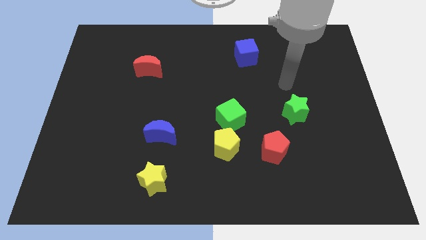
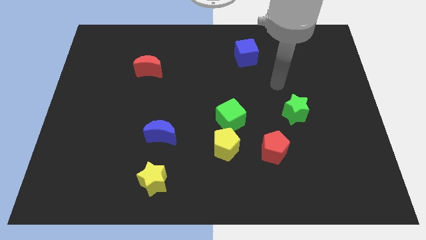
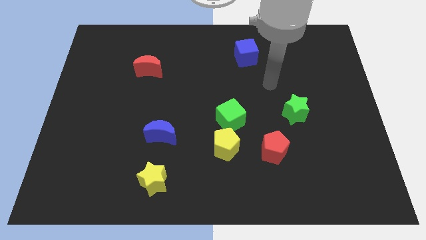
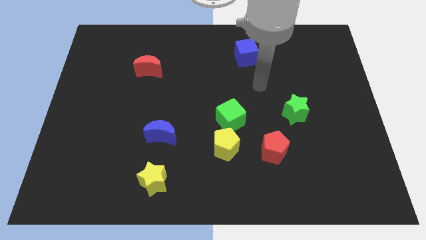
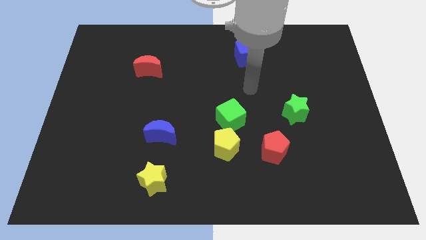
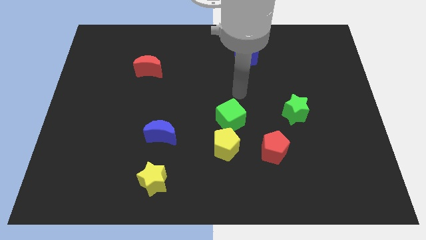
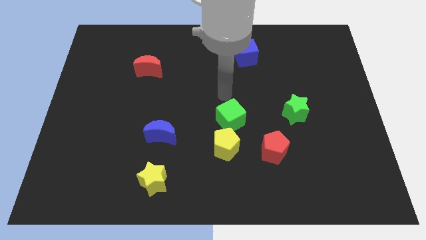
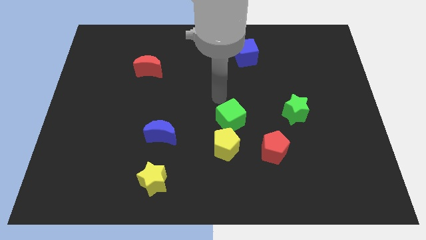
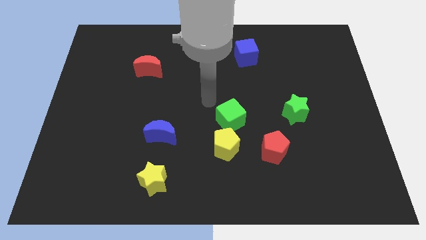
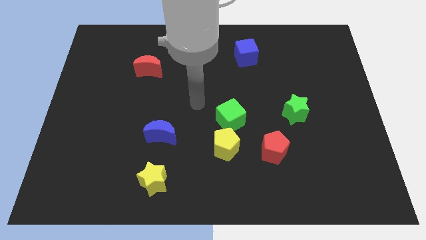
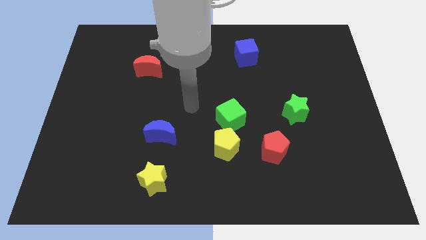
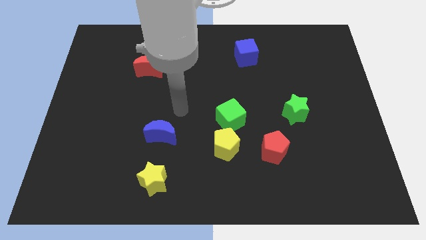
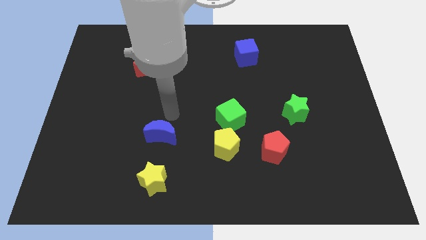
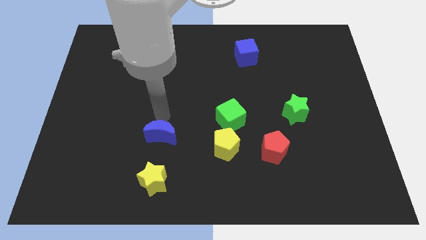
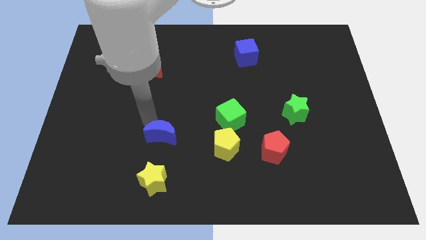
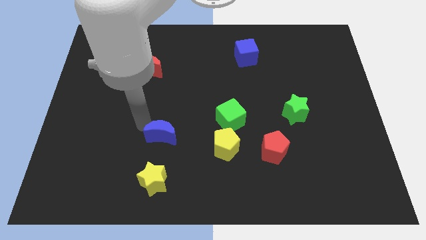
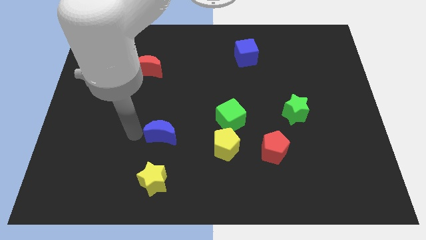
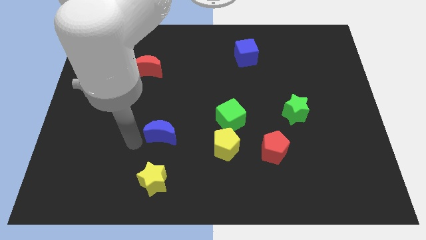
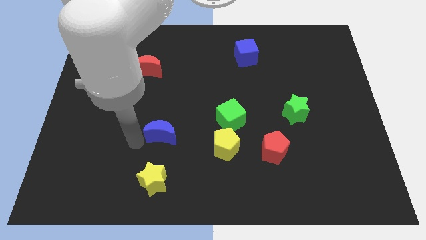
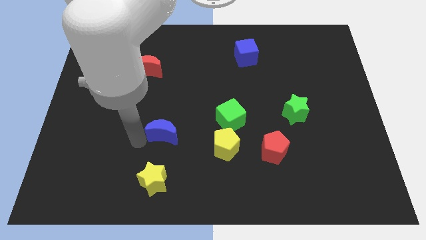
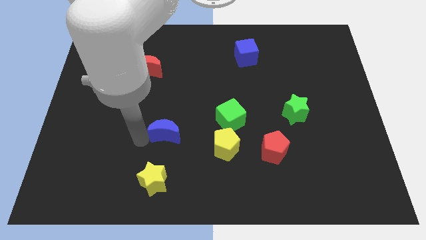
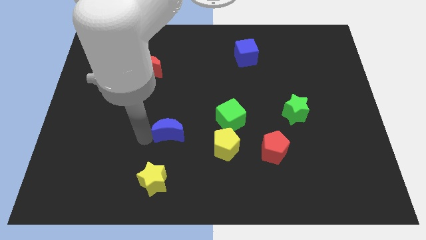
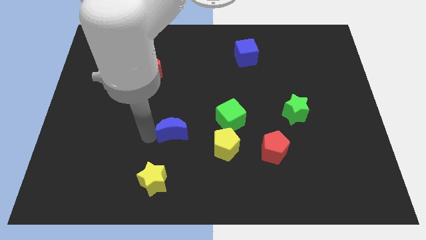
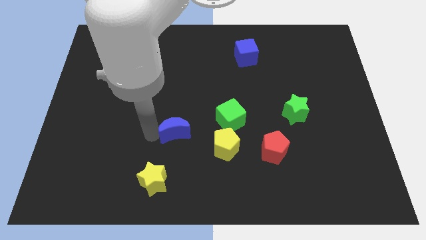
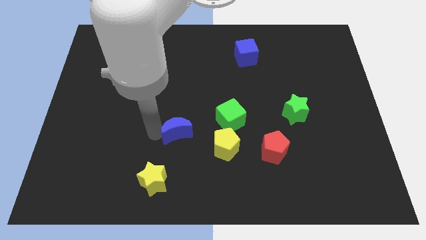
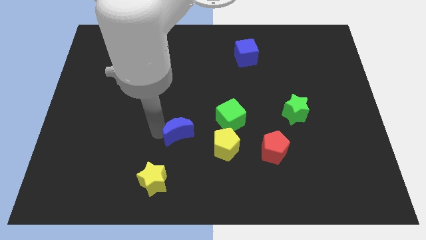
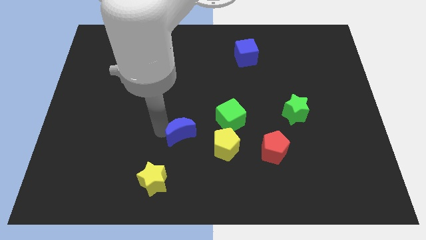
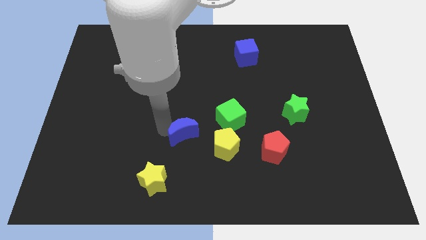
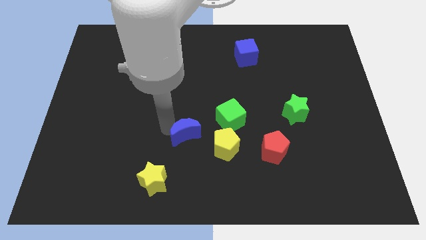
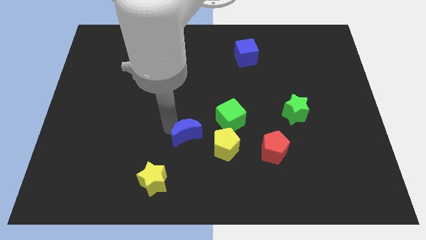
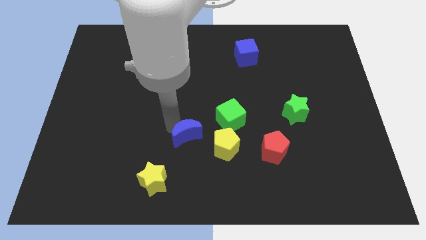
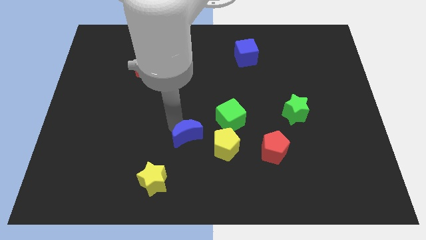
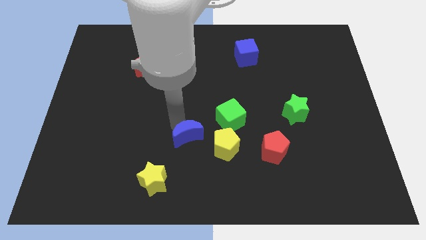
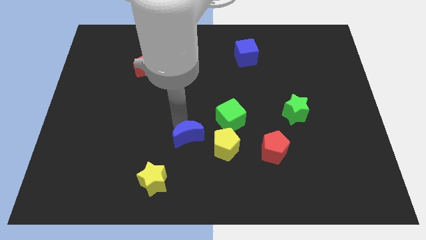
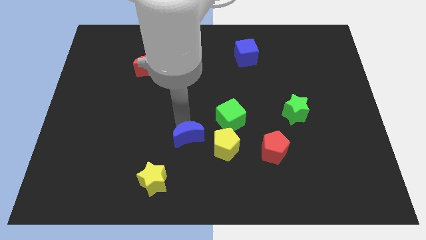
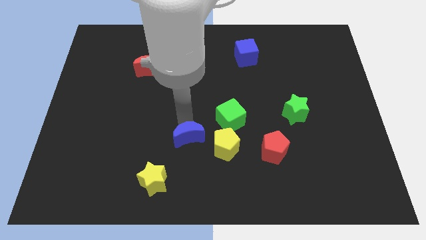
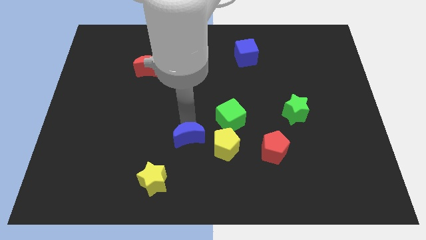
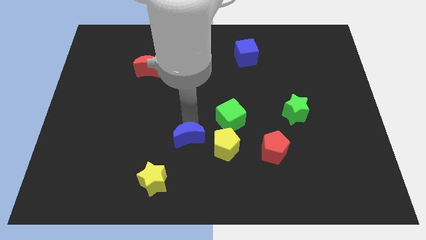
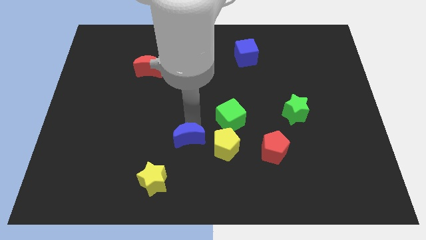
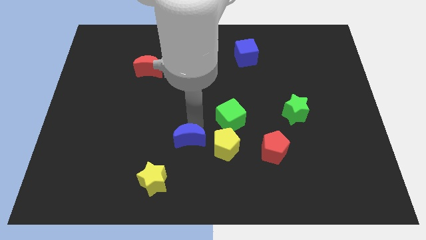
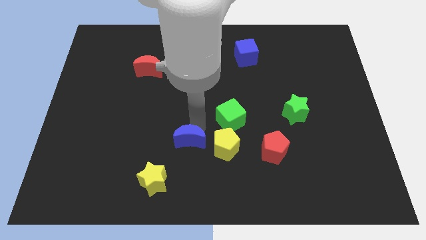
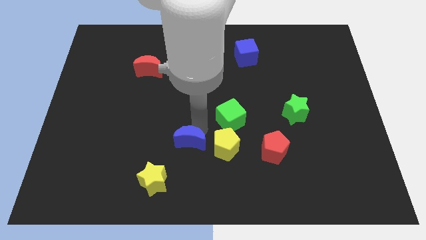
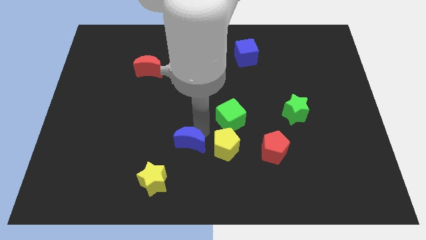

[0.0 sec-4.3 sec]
slightly slide the blue moon to the right

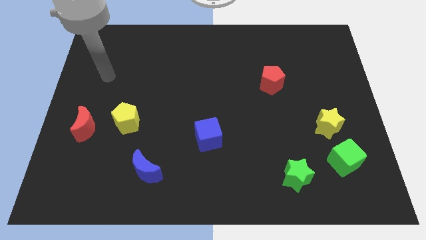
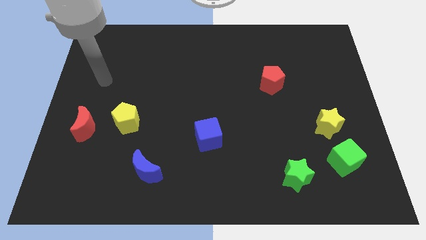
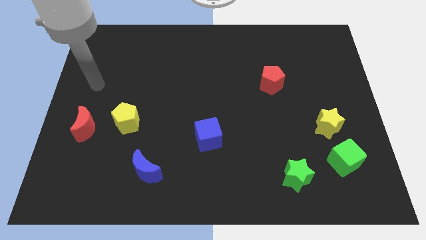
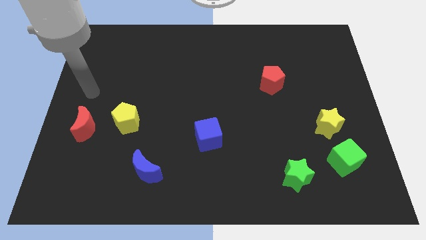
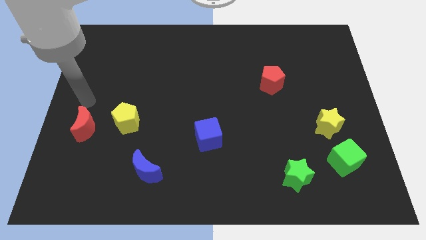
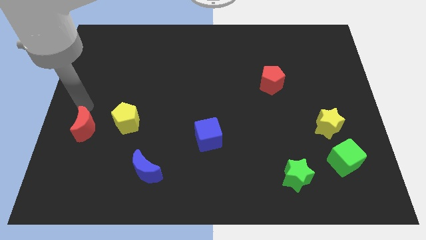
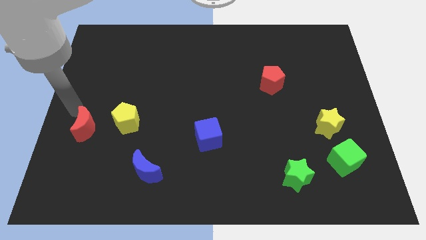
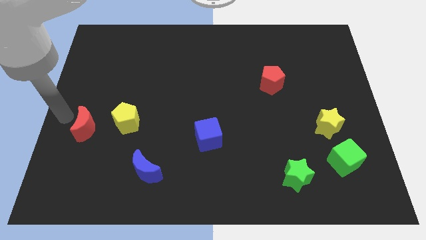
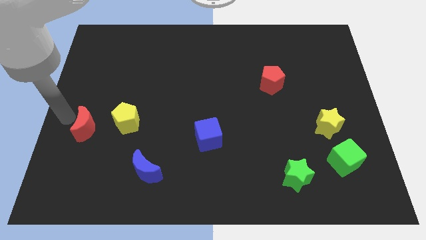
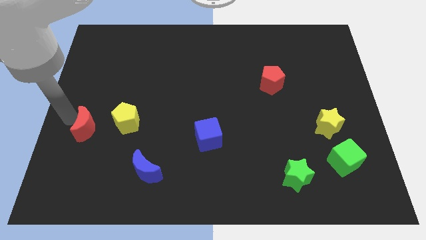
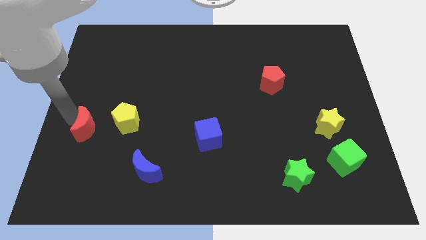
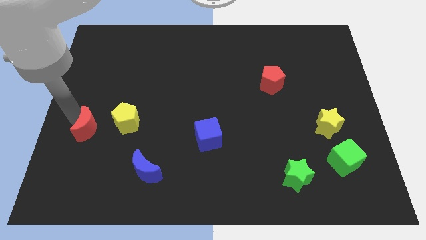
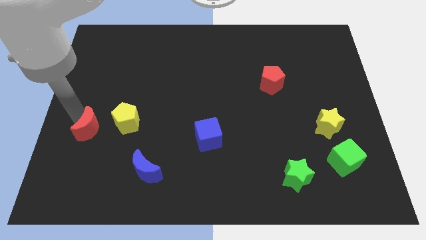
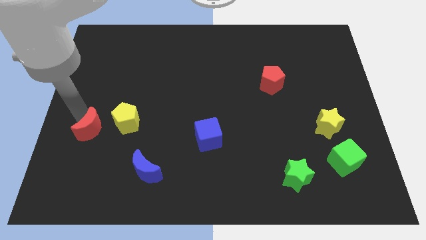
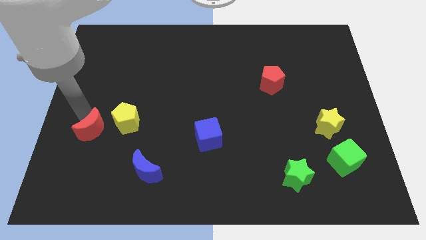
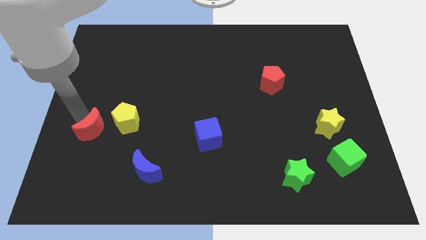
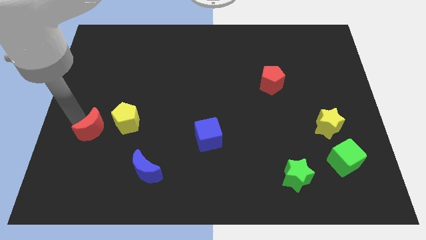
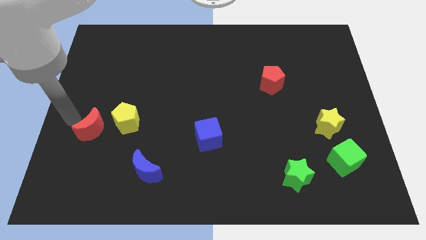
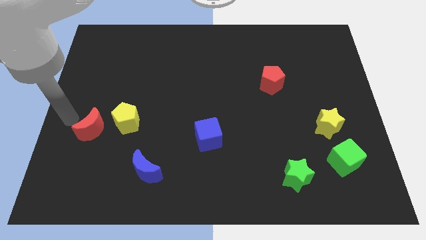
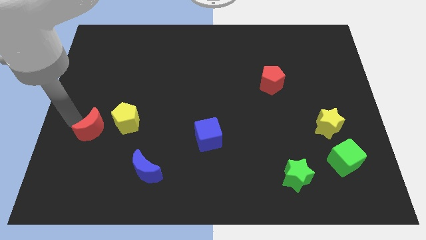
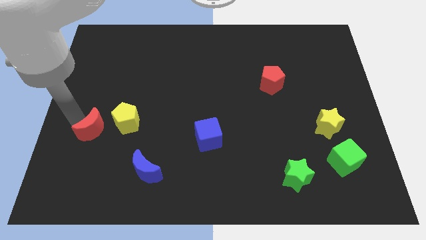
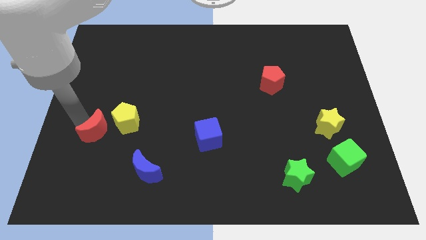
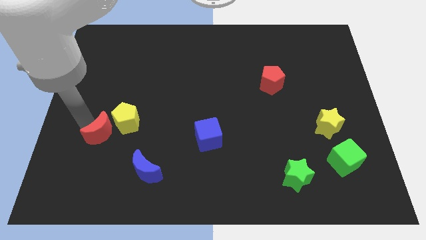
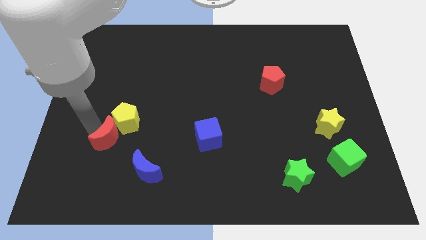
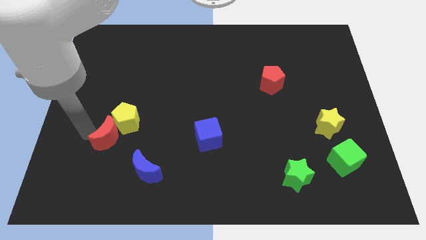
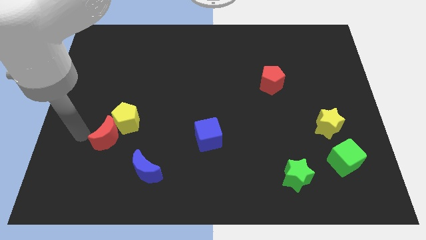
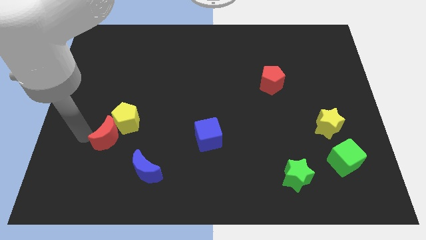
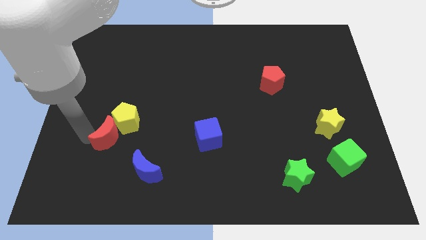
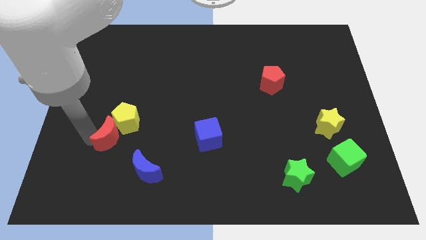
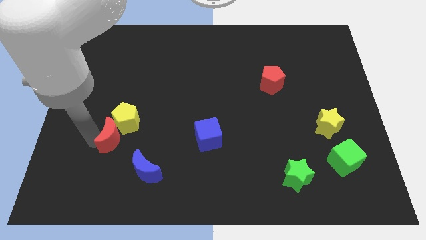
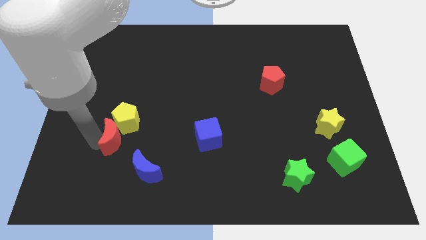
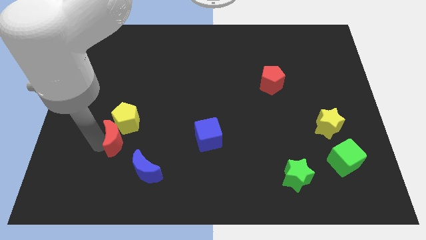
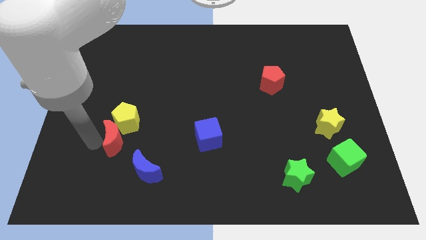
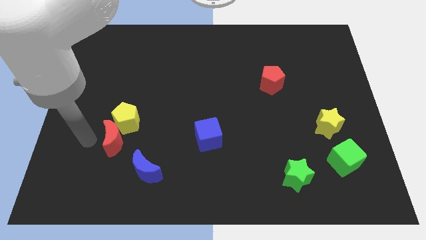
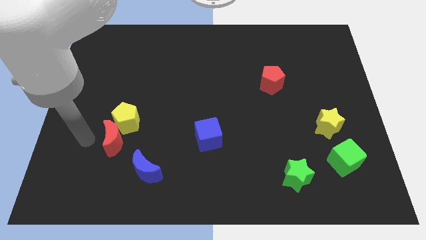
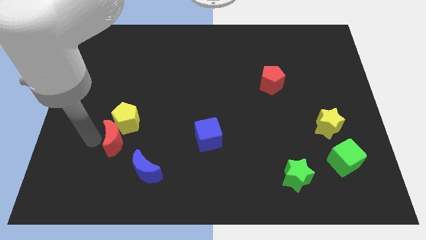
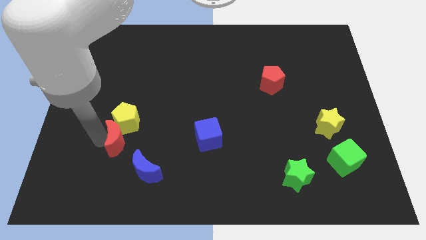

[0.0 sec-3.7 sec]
slightly slide the red moon to the right
